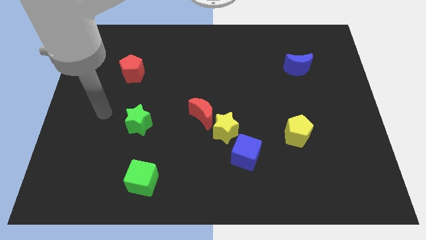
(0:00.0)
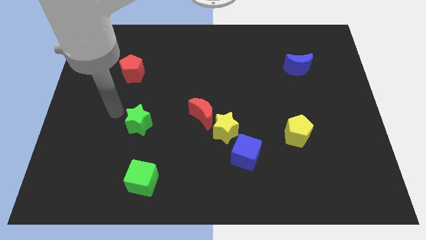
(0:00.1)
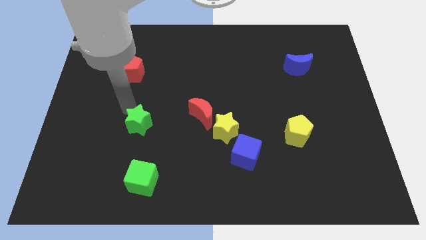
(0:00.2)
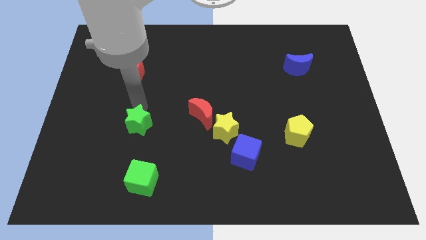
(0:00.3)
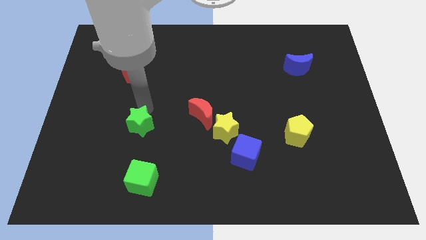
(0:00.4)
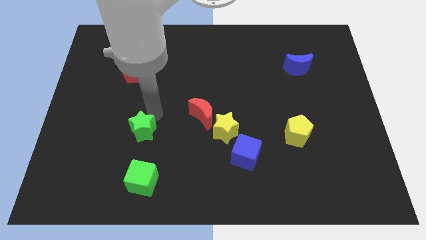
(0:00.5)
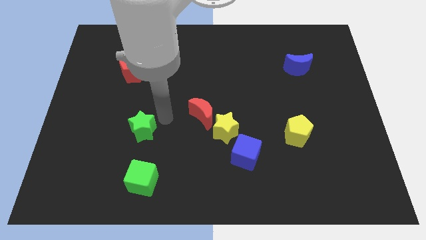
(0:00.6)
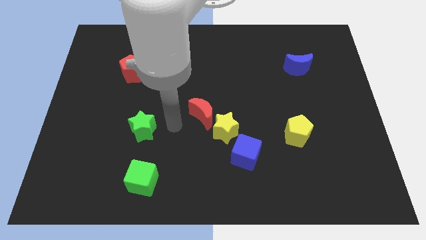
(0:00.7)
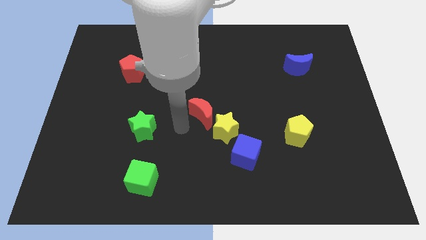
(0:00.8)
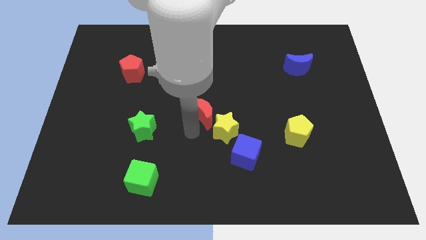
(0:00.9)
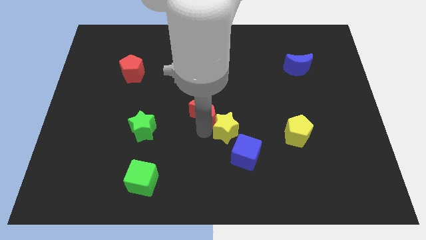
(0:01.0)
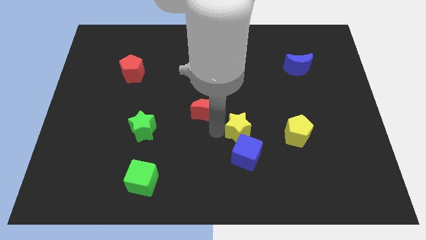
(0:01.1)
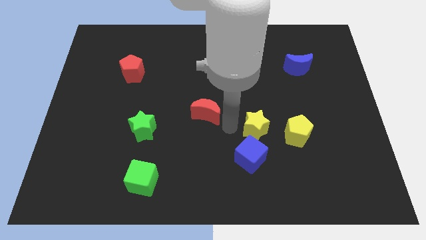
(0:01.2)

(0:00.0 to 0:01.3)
separate the red moon from the yellow star

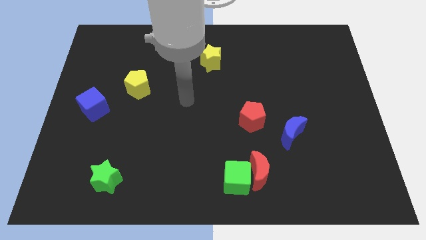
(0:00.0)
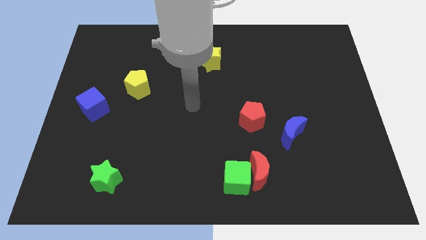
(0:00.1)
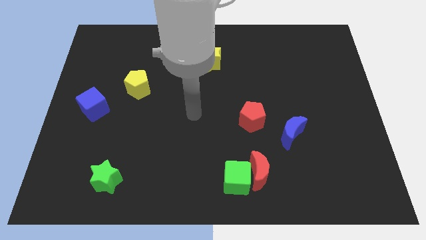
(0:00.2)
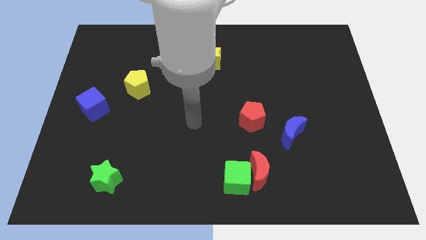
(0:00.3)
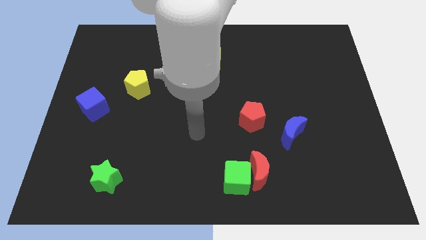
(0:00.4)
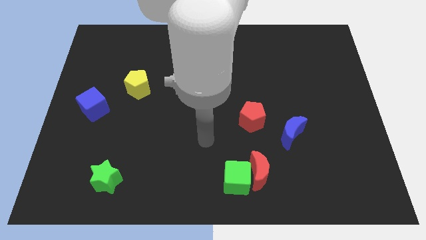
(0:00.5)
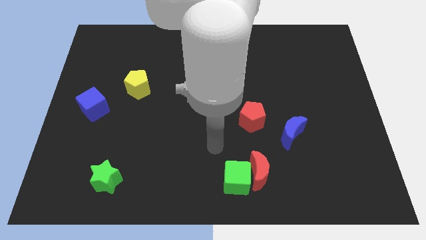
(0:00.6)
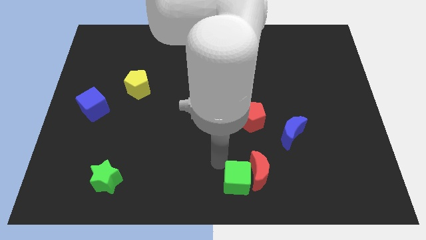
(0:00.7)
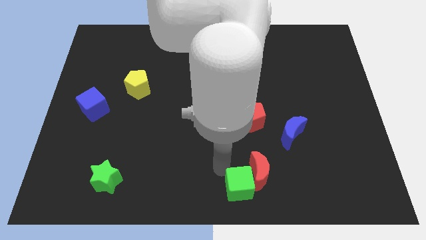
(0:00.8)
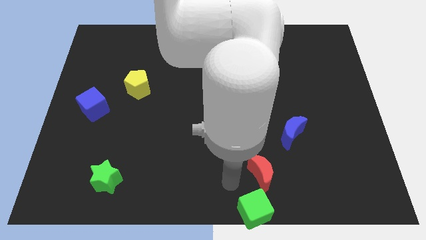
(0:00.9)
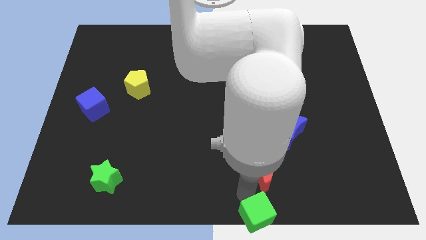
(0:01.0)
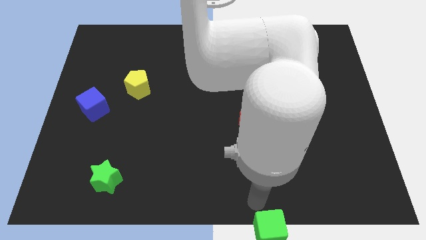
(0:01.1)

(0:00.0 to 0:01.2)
pull the red moon apart from the green cube

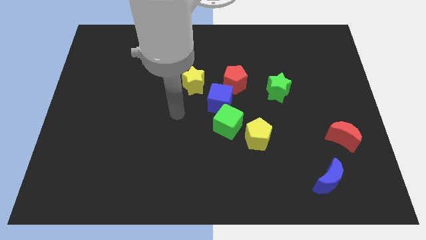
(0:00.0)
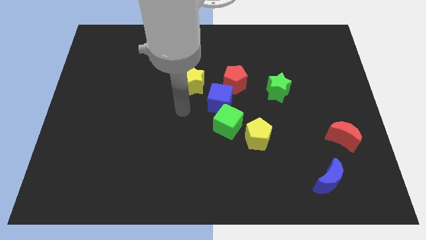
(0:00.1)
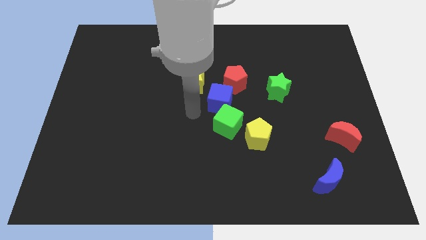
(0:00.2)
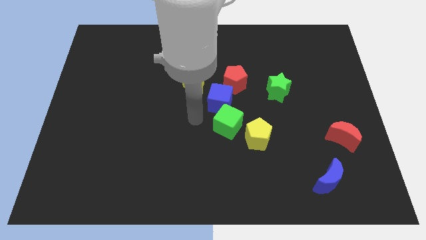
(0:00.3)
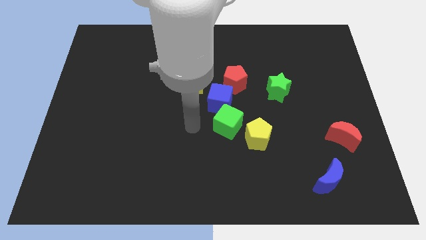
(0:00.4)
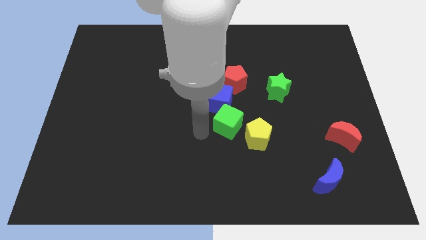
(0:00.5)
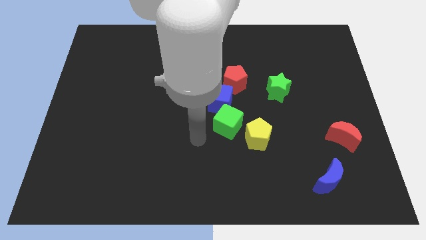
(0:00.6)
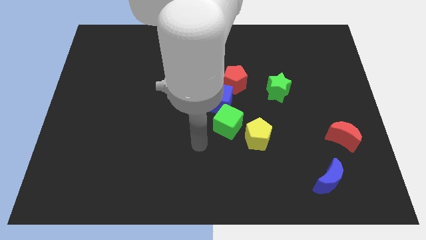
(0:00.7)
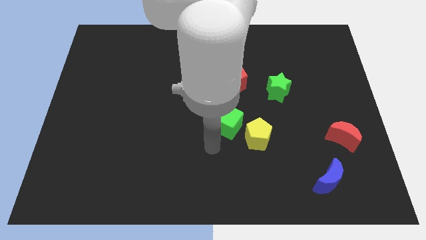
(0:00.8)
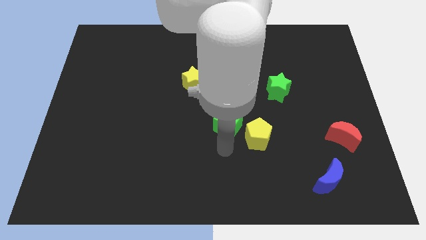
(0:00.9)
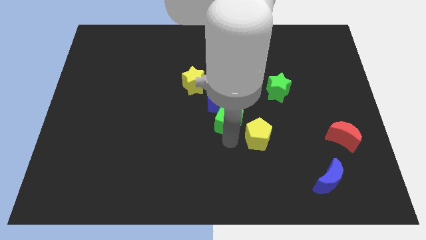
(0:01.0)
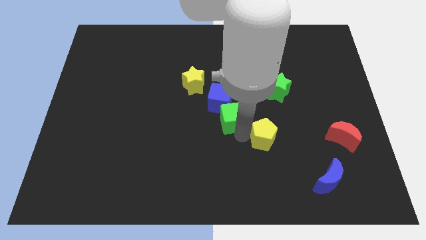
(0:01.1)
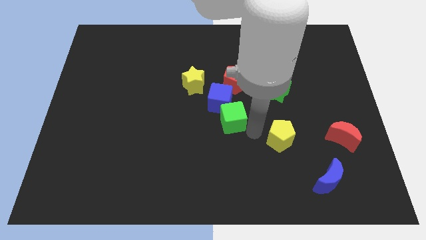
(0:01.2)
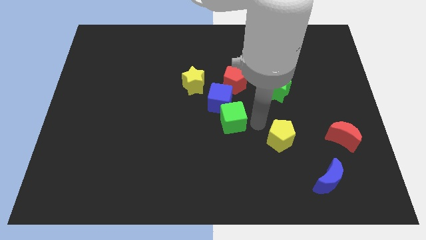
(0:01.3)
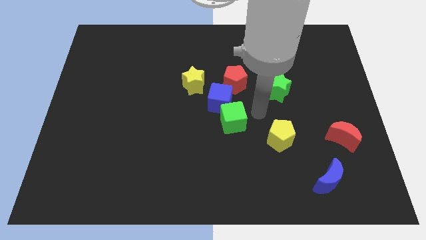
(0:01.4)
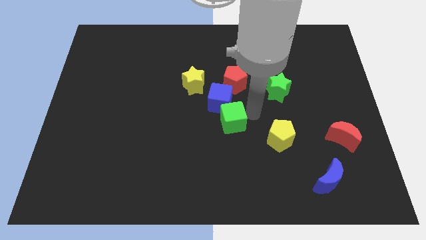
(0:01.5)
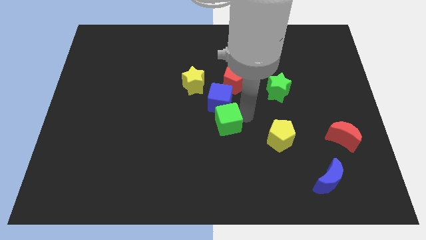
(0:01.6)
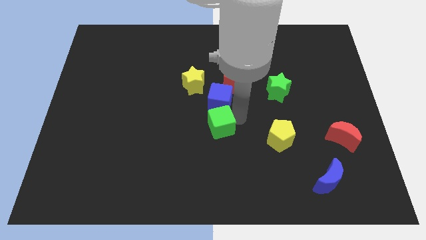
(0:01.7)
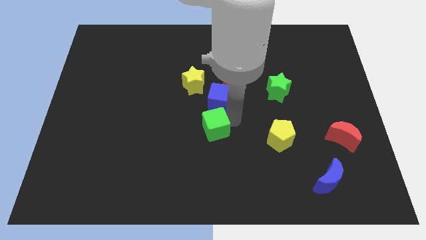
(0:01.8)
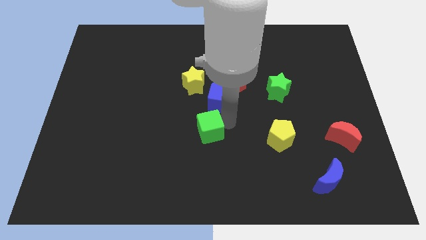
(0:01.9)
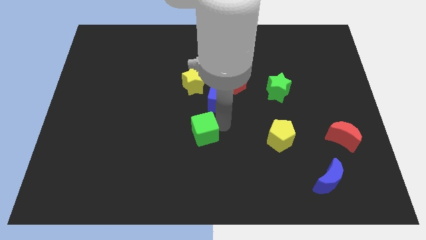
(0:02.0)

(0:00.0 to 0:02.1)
separate the green cube from the blue cube and yellow pentagon

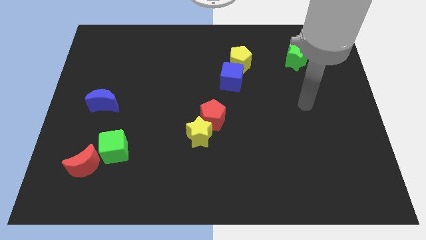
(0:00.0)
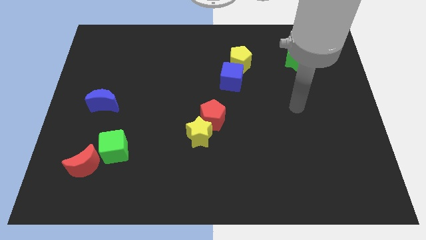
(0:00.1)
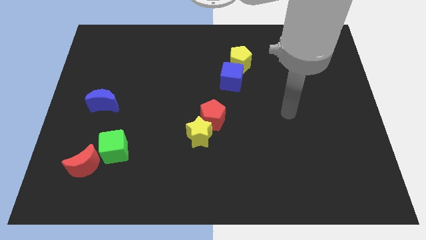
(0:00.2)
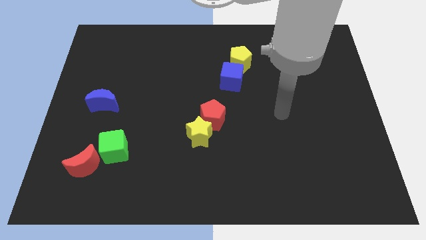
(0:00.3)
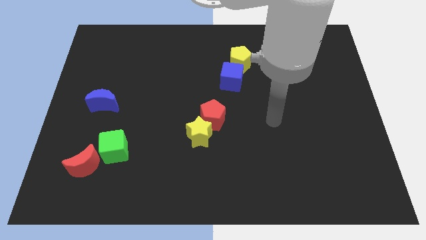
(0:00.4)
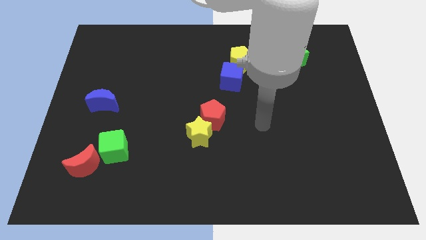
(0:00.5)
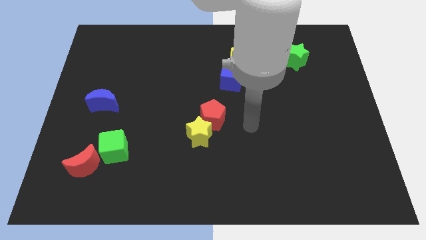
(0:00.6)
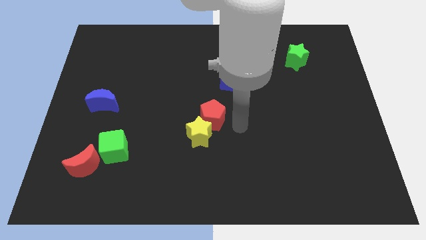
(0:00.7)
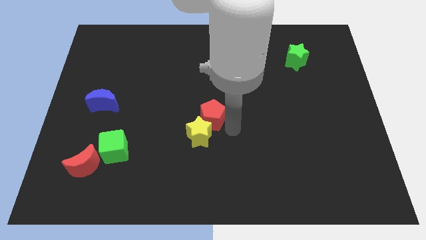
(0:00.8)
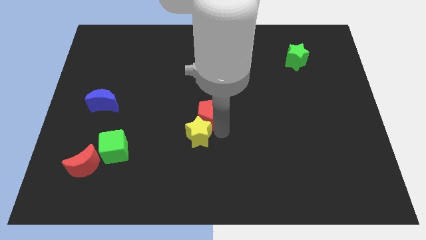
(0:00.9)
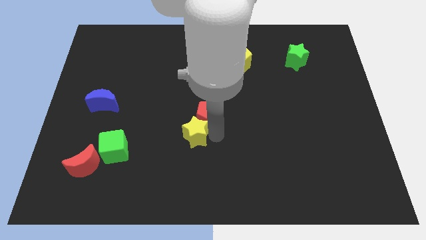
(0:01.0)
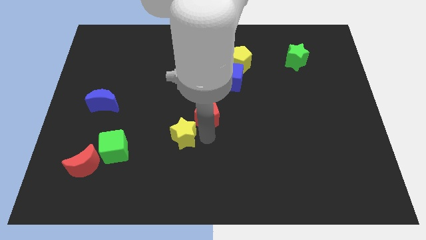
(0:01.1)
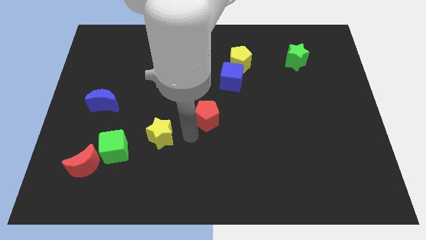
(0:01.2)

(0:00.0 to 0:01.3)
pull the red pentagon apart from the yellow star

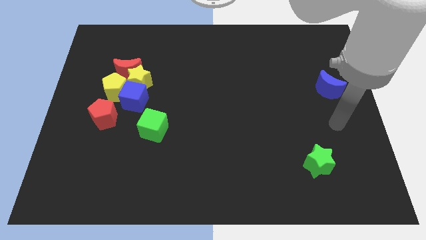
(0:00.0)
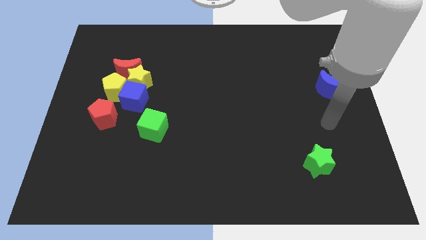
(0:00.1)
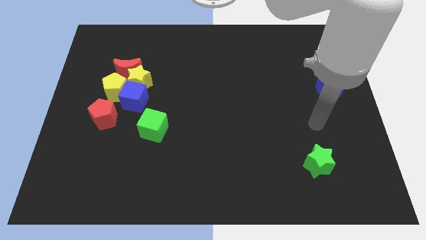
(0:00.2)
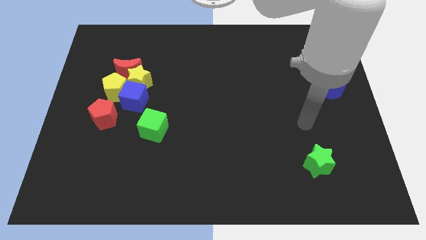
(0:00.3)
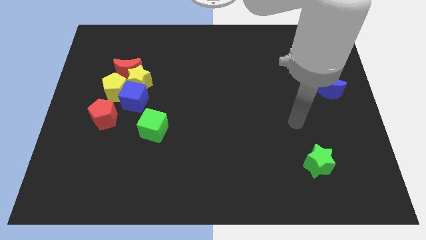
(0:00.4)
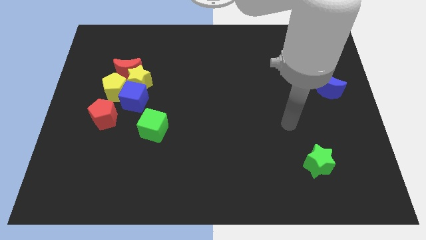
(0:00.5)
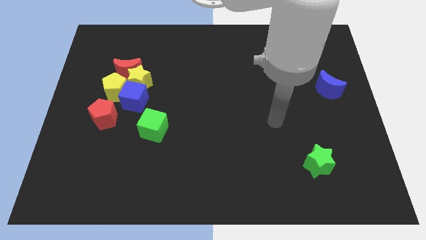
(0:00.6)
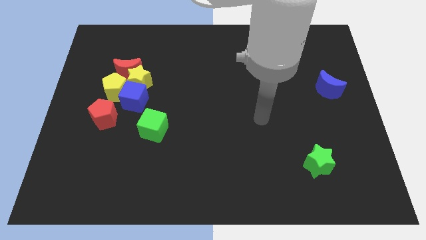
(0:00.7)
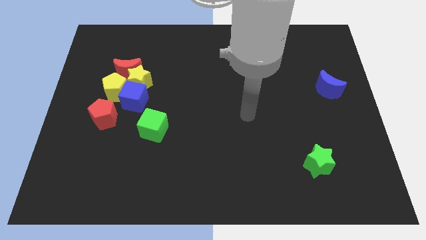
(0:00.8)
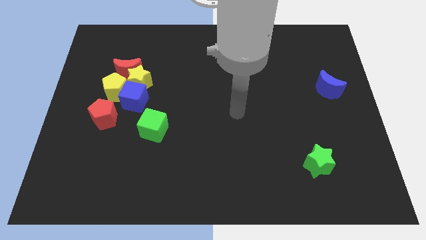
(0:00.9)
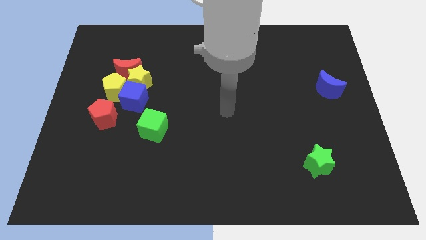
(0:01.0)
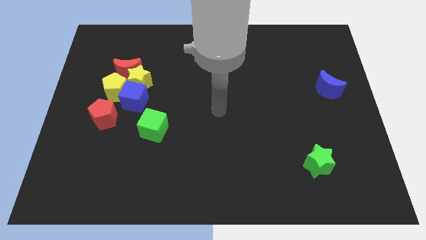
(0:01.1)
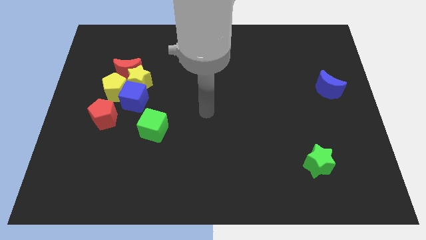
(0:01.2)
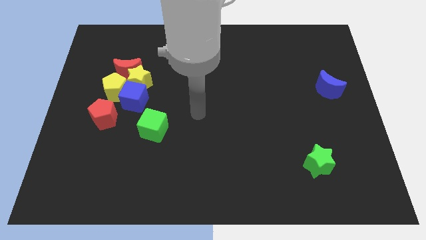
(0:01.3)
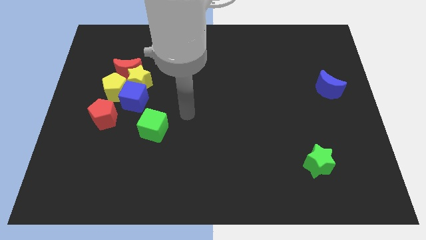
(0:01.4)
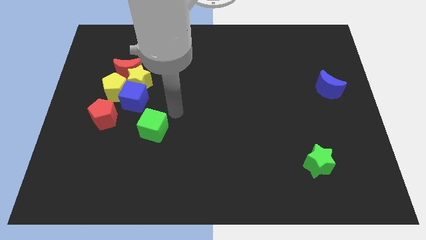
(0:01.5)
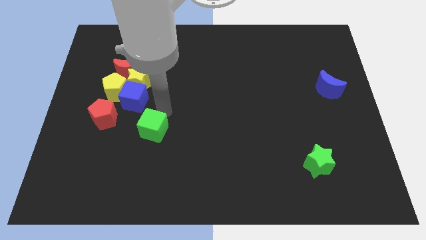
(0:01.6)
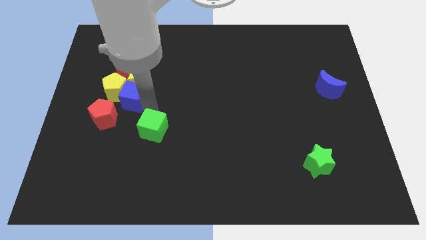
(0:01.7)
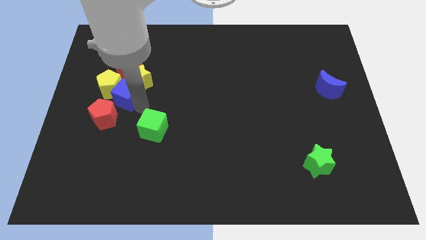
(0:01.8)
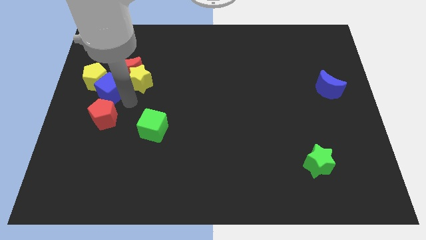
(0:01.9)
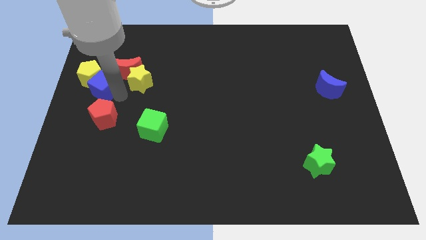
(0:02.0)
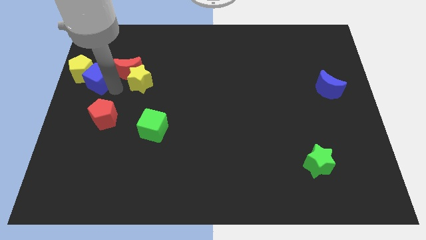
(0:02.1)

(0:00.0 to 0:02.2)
separate the yellow star from the clump

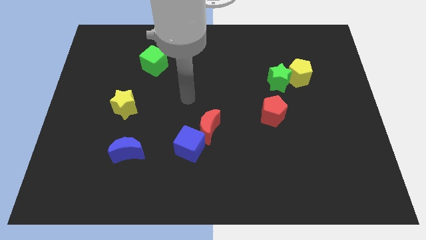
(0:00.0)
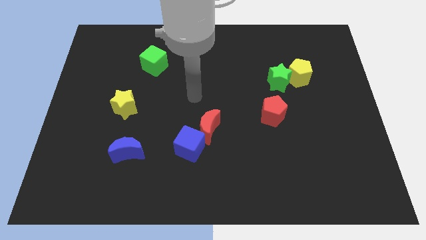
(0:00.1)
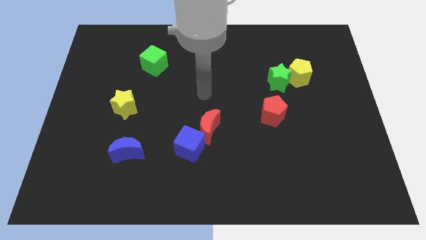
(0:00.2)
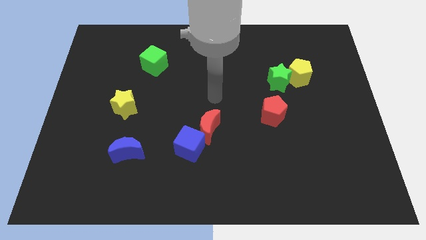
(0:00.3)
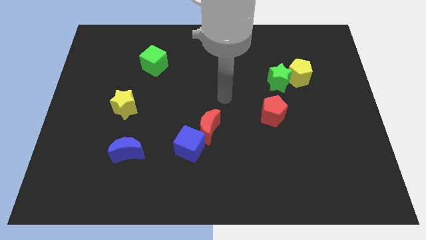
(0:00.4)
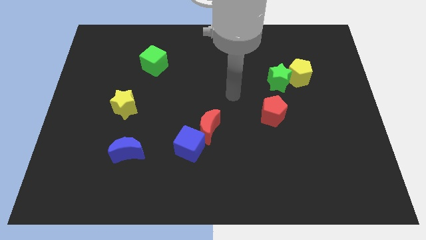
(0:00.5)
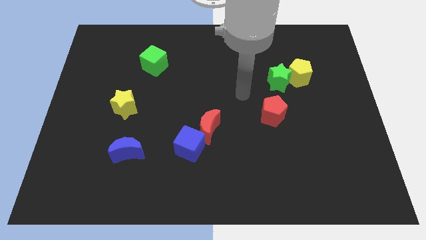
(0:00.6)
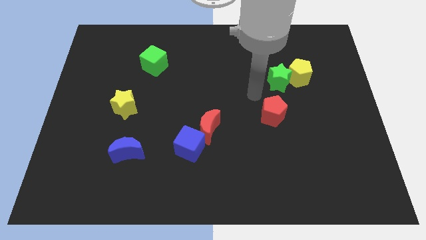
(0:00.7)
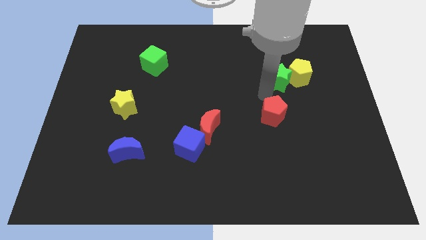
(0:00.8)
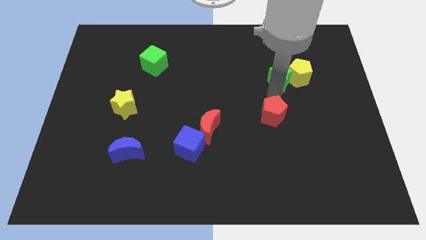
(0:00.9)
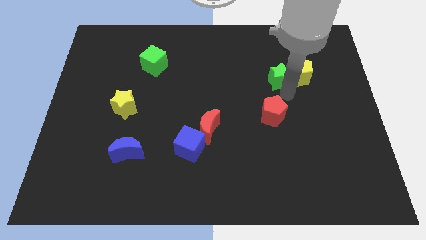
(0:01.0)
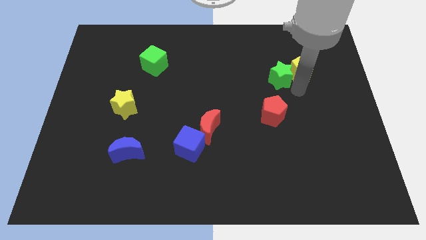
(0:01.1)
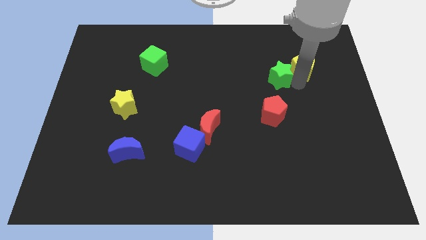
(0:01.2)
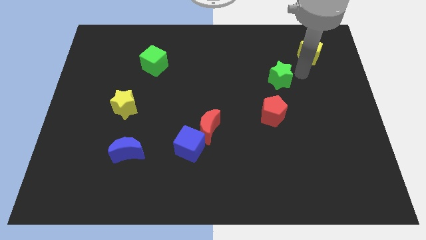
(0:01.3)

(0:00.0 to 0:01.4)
move the green star away from the yellow pentagon
